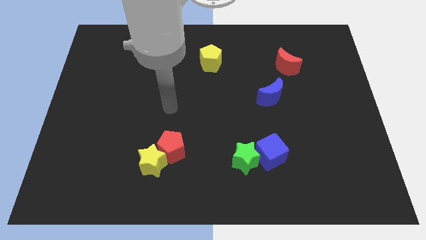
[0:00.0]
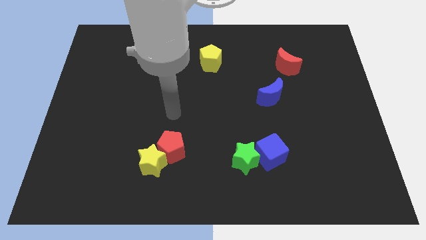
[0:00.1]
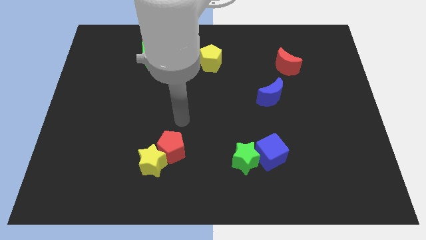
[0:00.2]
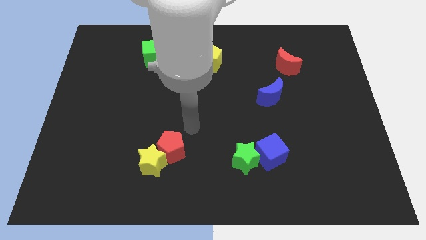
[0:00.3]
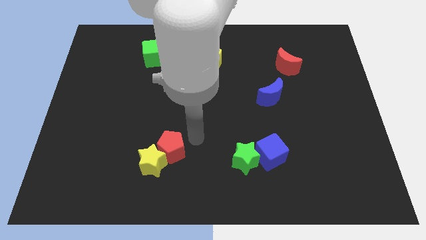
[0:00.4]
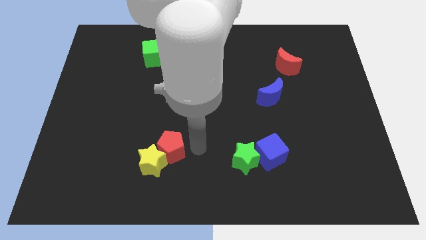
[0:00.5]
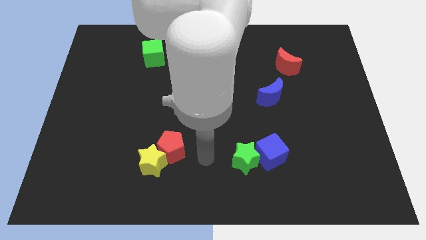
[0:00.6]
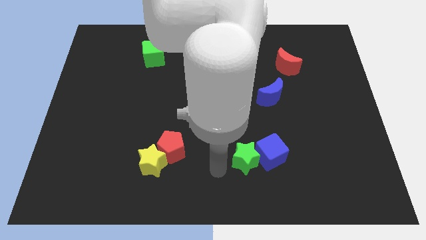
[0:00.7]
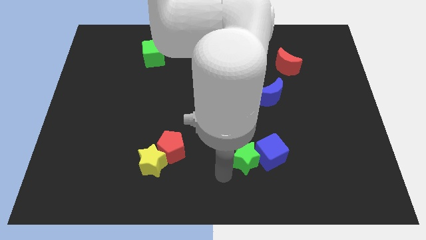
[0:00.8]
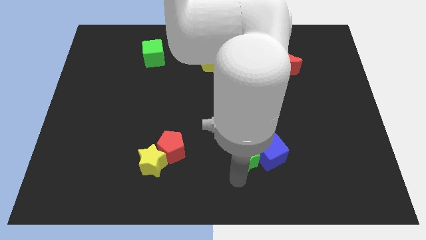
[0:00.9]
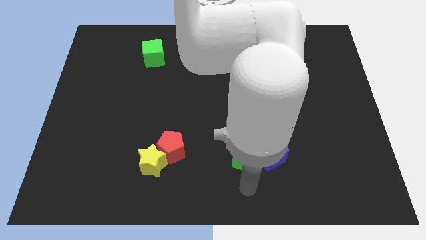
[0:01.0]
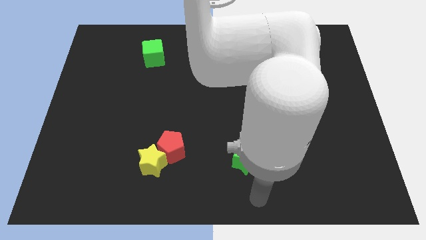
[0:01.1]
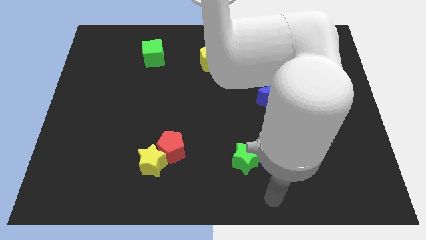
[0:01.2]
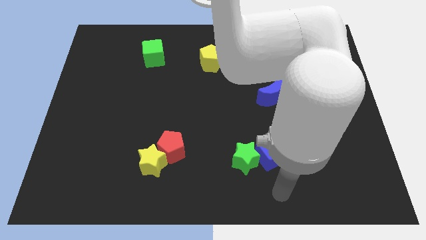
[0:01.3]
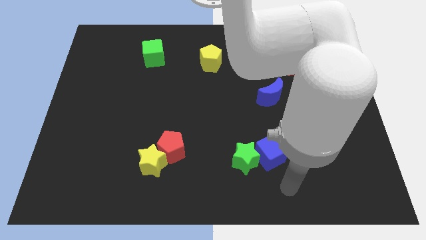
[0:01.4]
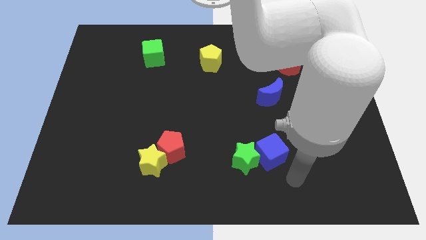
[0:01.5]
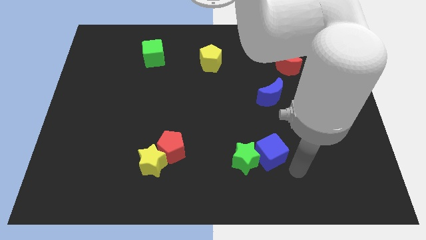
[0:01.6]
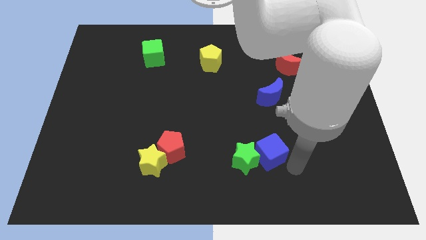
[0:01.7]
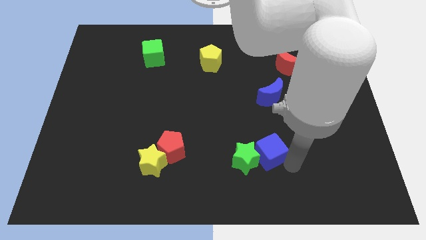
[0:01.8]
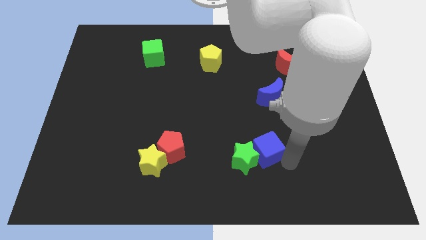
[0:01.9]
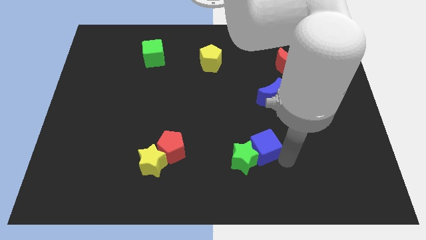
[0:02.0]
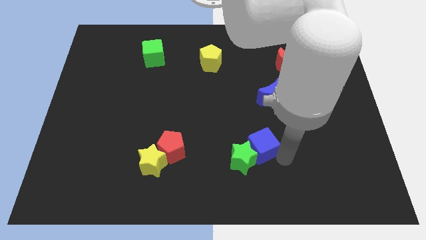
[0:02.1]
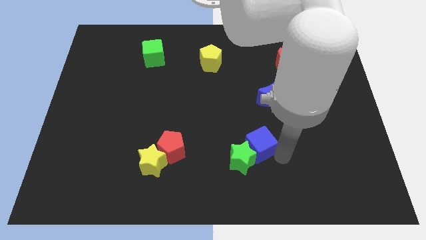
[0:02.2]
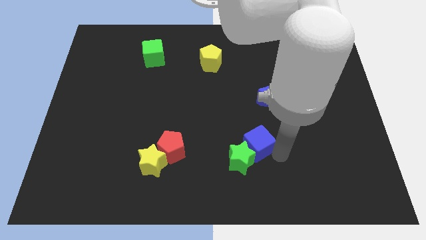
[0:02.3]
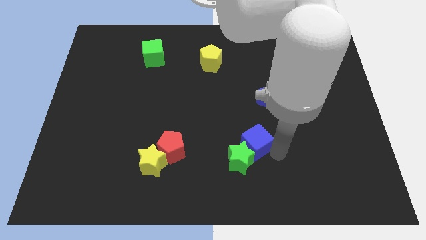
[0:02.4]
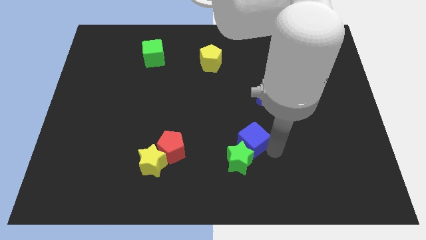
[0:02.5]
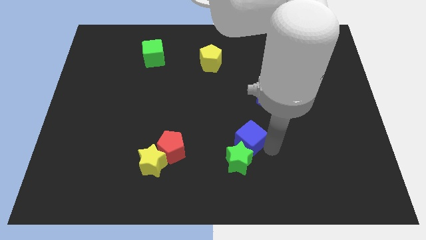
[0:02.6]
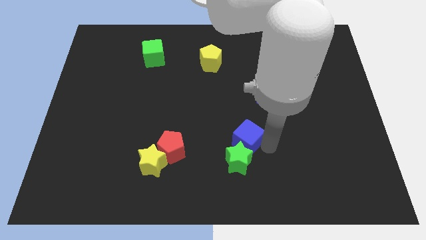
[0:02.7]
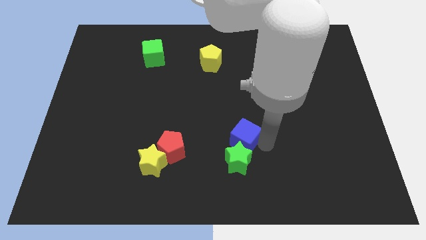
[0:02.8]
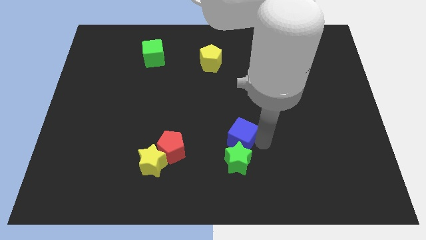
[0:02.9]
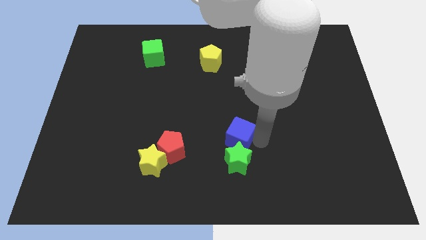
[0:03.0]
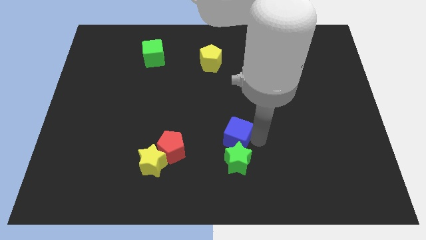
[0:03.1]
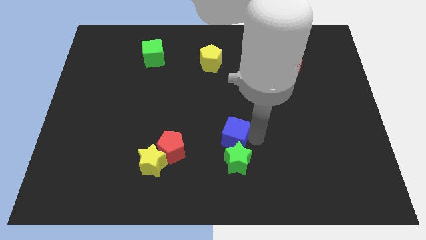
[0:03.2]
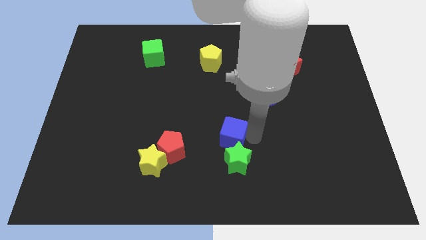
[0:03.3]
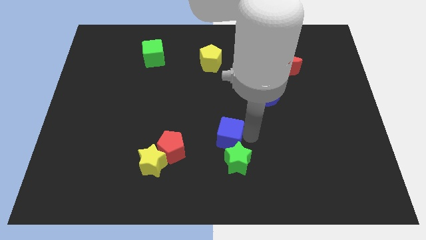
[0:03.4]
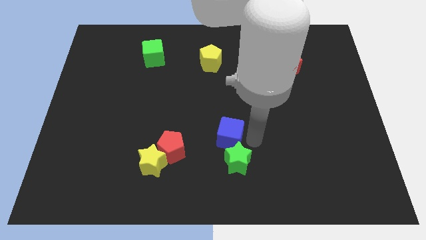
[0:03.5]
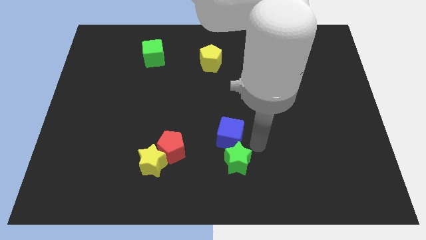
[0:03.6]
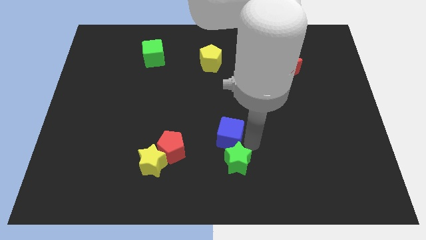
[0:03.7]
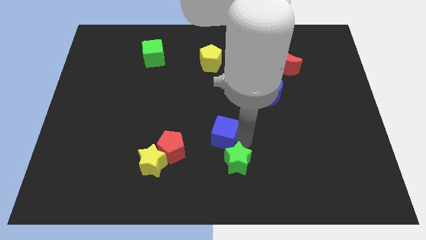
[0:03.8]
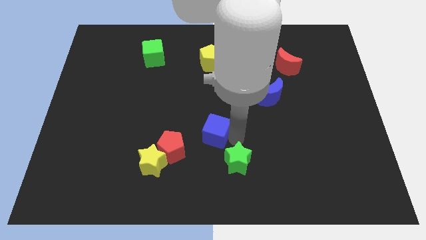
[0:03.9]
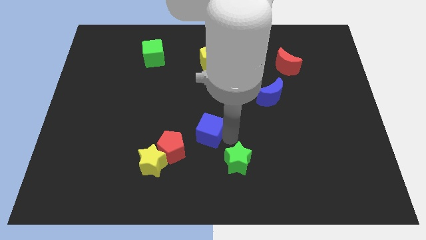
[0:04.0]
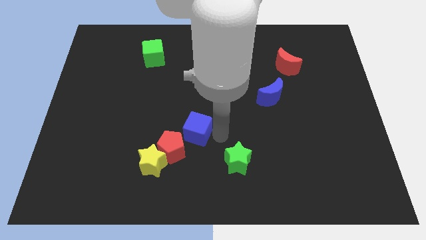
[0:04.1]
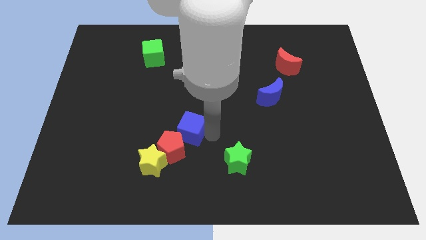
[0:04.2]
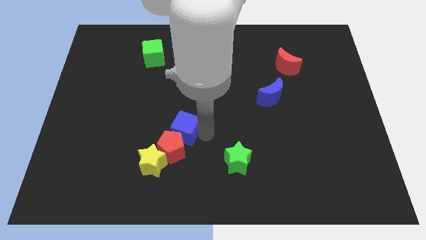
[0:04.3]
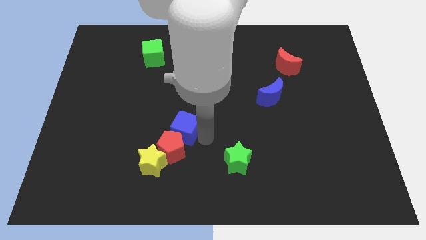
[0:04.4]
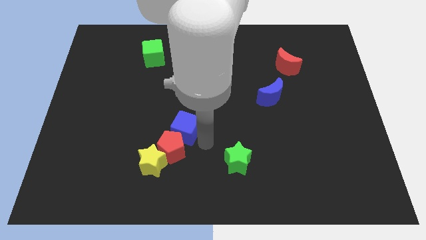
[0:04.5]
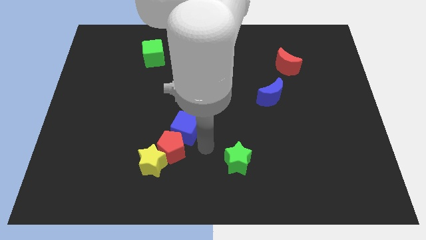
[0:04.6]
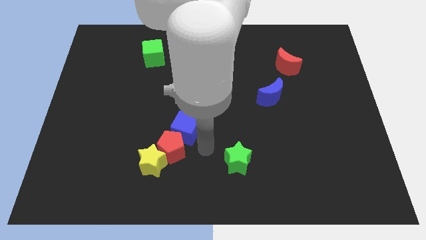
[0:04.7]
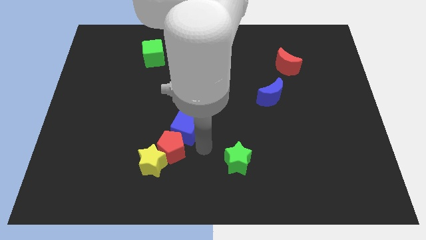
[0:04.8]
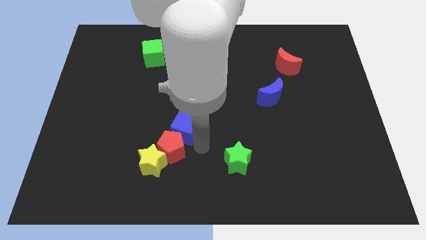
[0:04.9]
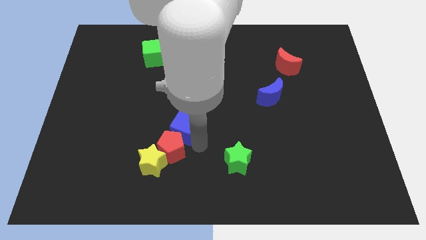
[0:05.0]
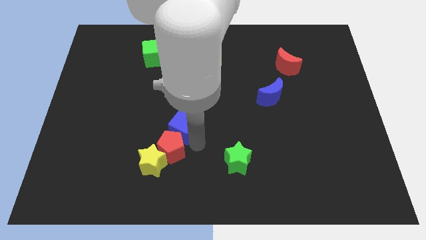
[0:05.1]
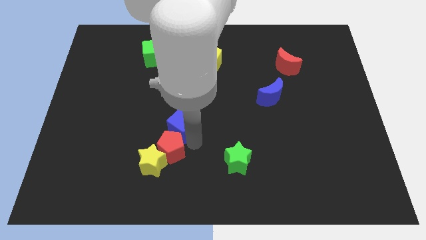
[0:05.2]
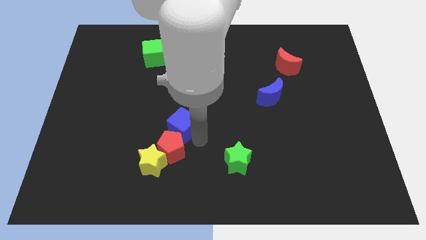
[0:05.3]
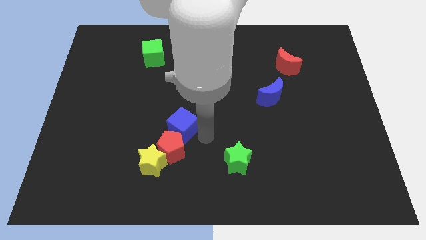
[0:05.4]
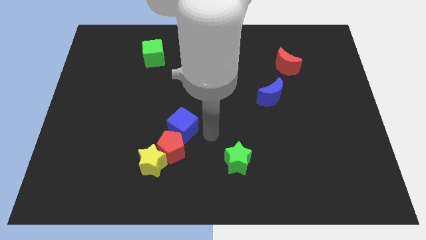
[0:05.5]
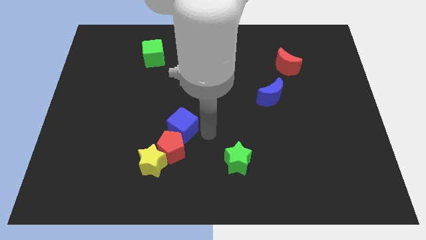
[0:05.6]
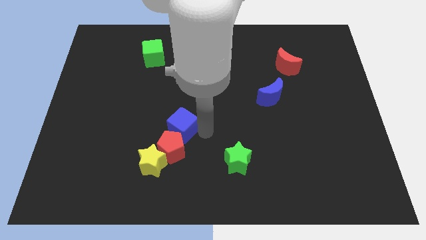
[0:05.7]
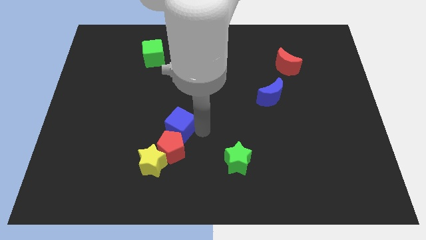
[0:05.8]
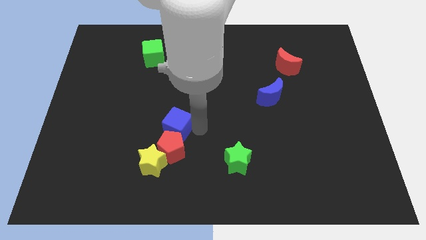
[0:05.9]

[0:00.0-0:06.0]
slide the blue cube above the yellow star

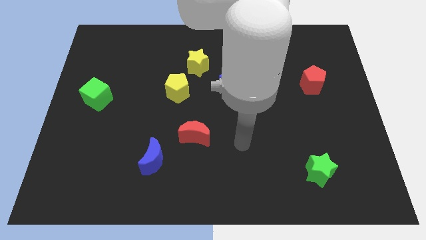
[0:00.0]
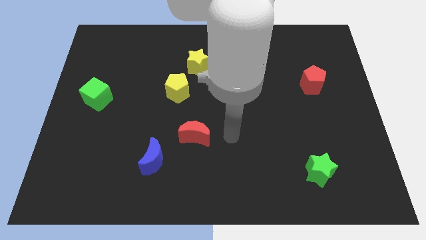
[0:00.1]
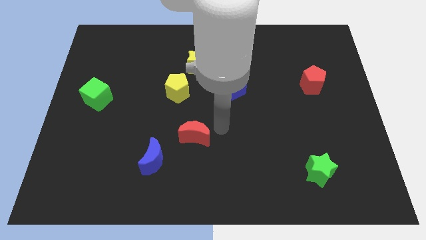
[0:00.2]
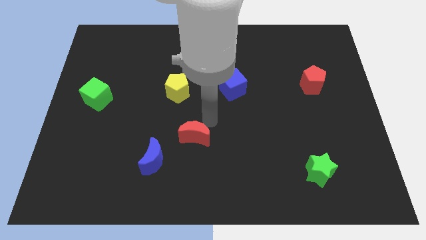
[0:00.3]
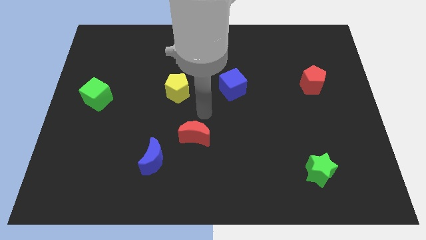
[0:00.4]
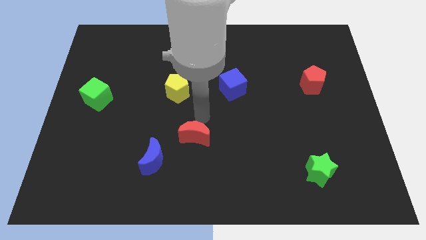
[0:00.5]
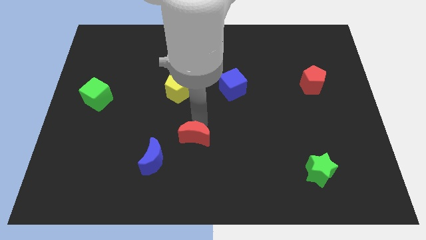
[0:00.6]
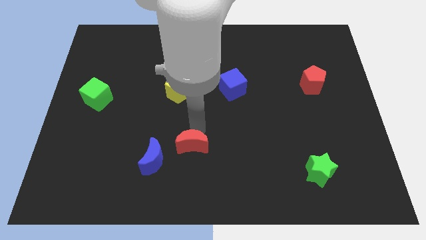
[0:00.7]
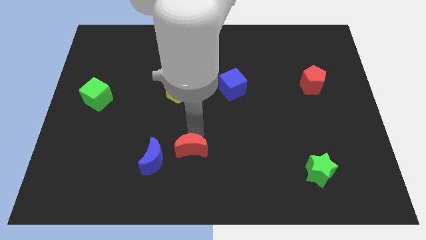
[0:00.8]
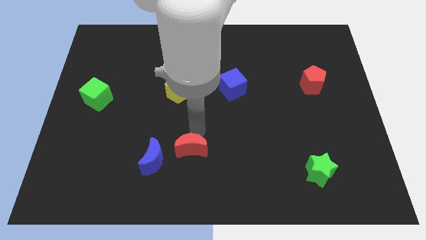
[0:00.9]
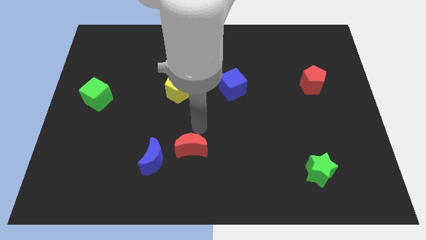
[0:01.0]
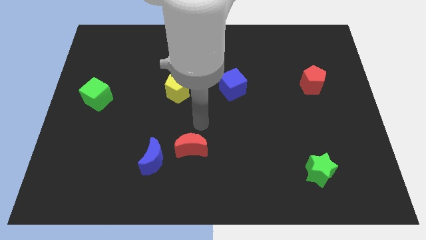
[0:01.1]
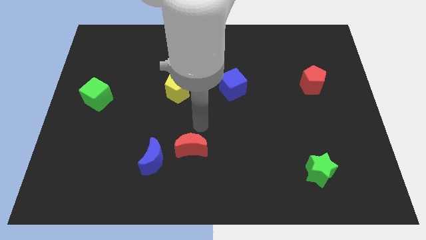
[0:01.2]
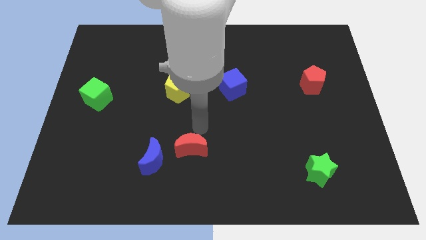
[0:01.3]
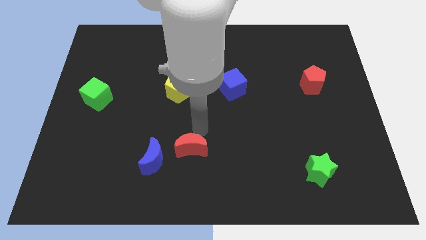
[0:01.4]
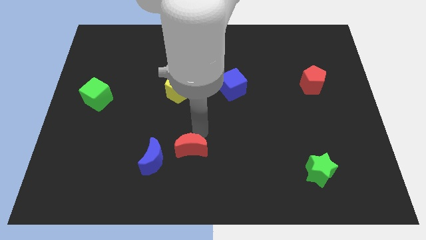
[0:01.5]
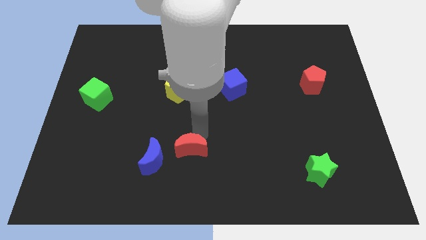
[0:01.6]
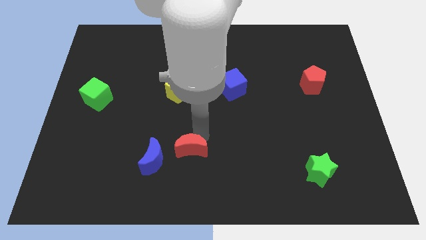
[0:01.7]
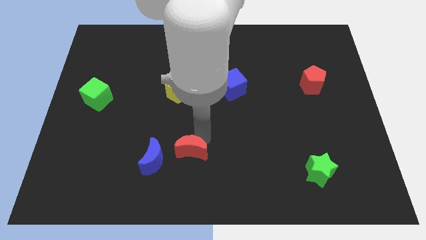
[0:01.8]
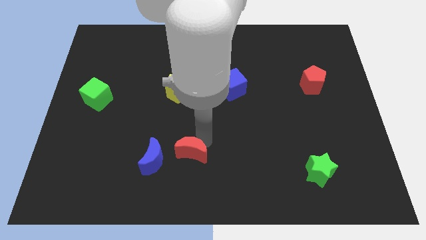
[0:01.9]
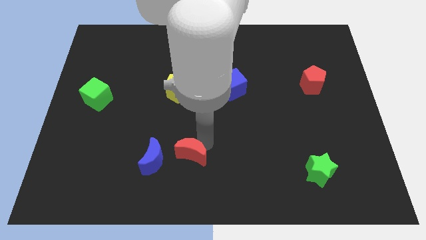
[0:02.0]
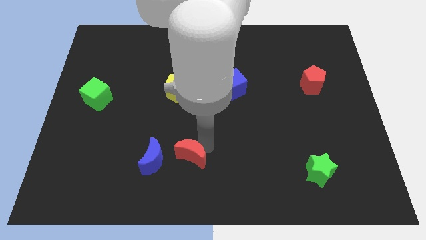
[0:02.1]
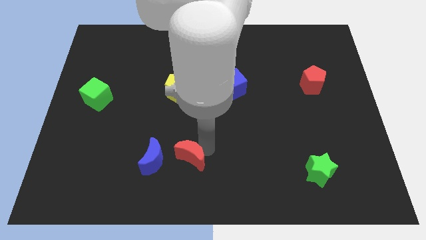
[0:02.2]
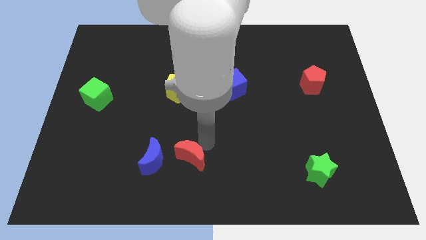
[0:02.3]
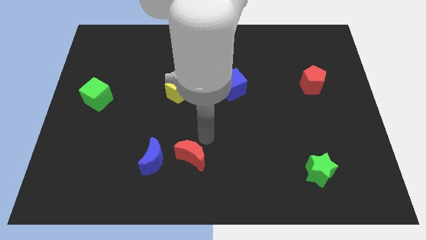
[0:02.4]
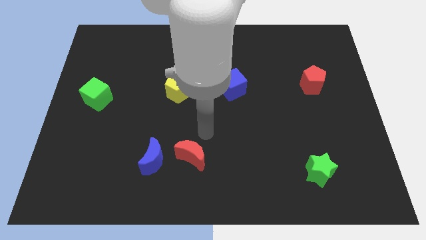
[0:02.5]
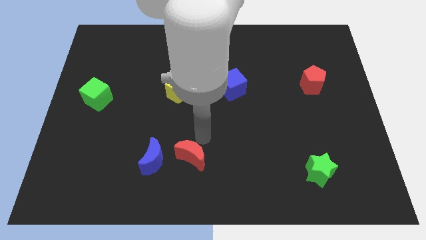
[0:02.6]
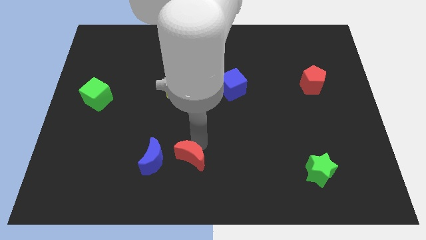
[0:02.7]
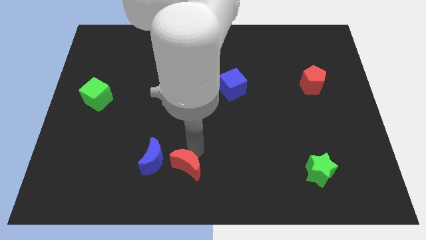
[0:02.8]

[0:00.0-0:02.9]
put the red moon to the bottom right side of the blue moon
